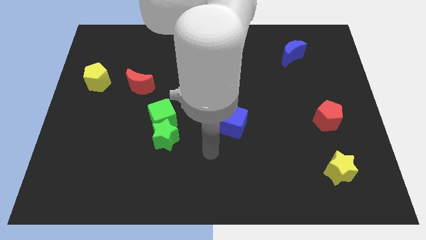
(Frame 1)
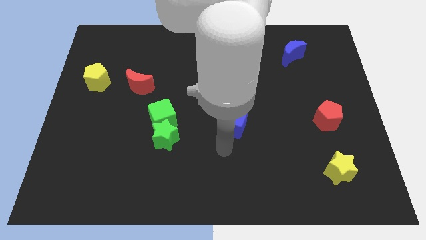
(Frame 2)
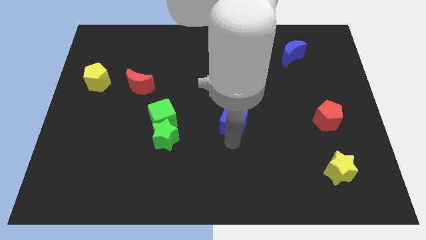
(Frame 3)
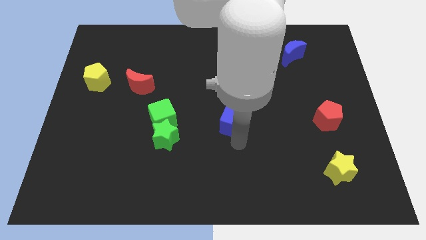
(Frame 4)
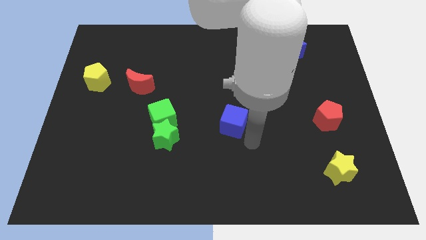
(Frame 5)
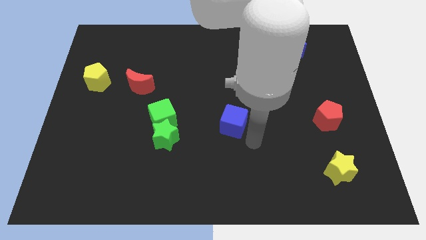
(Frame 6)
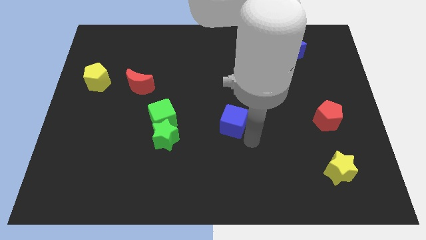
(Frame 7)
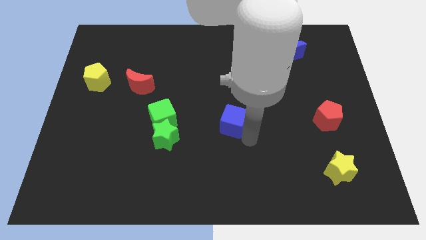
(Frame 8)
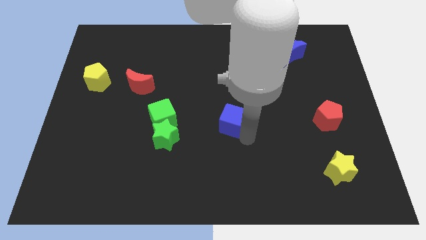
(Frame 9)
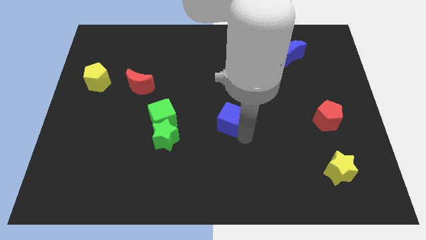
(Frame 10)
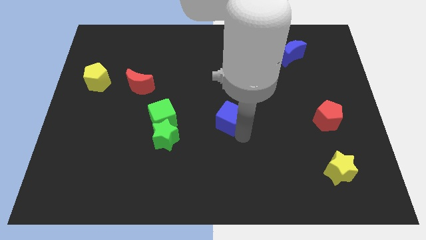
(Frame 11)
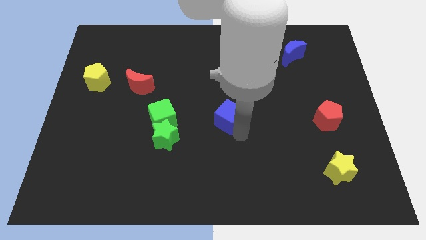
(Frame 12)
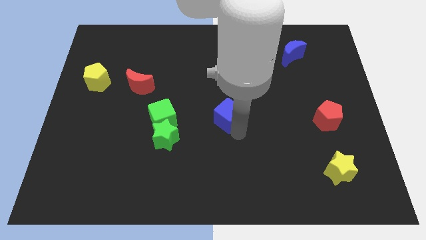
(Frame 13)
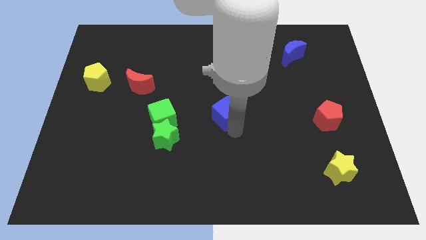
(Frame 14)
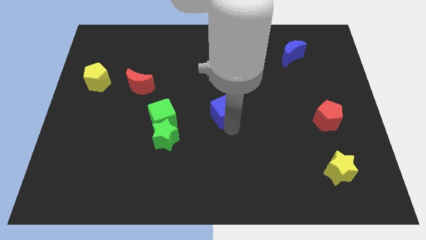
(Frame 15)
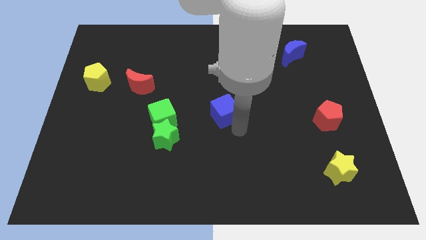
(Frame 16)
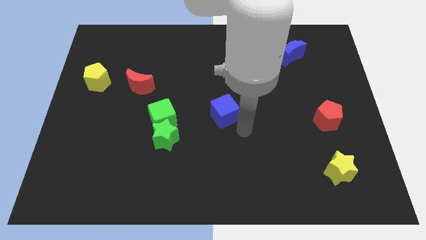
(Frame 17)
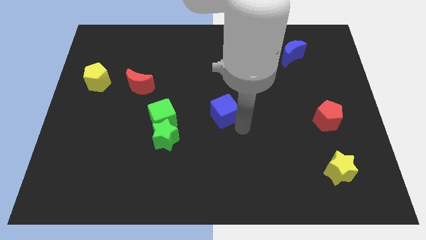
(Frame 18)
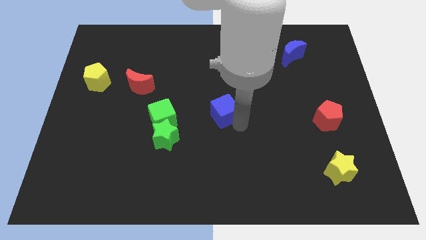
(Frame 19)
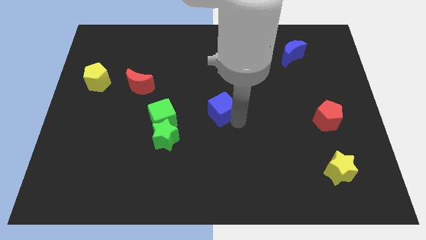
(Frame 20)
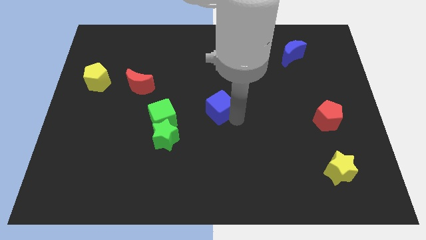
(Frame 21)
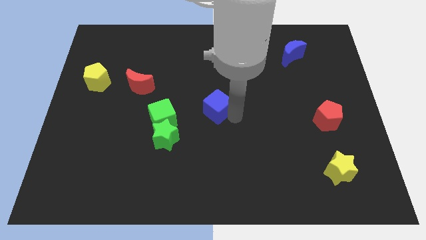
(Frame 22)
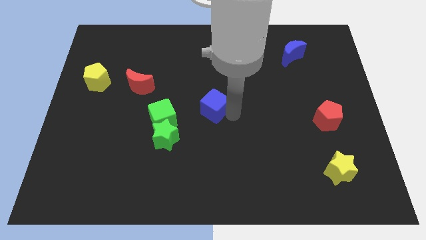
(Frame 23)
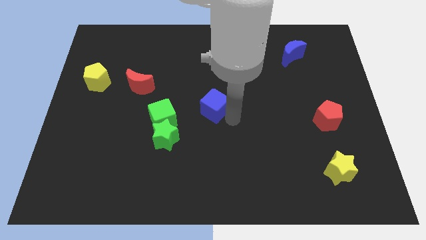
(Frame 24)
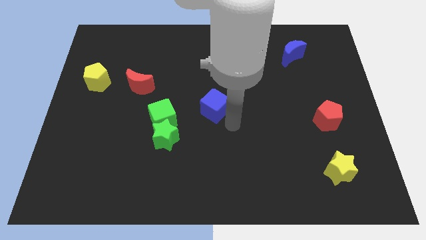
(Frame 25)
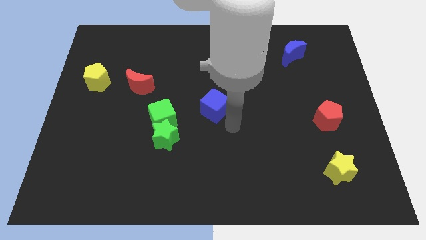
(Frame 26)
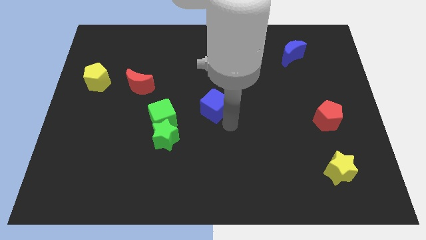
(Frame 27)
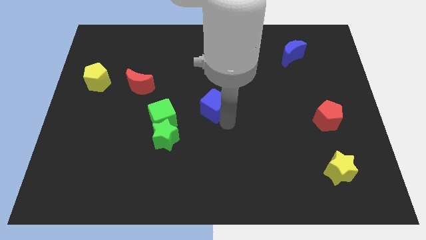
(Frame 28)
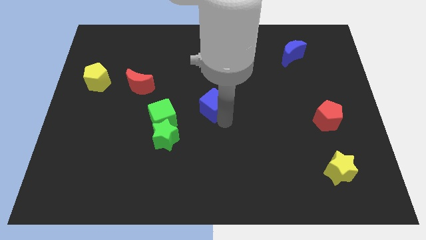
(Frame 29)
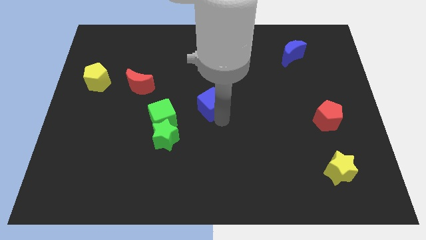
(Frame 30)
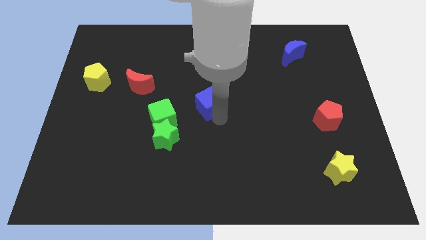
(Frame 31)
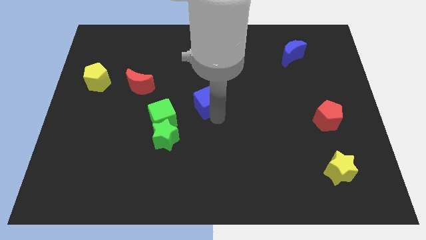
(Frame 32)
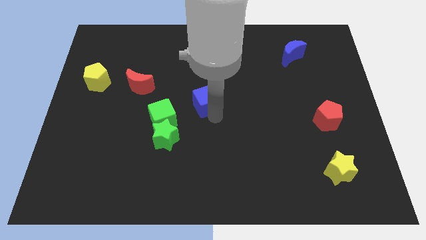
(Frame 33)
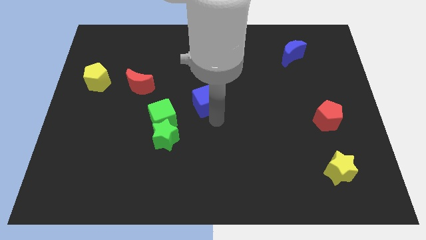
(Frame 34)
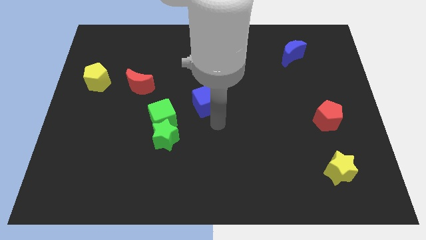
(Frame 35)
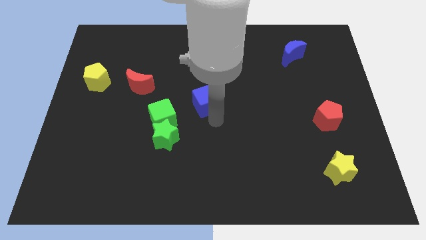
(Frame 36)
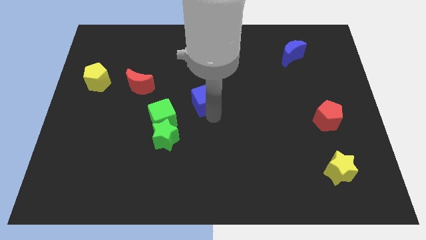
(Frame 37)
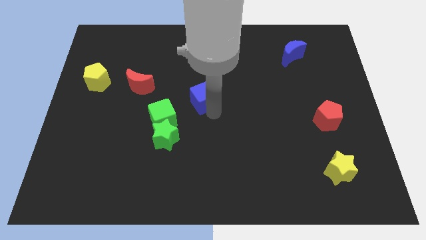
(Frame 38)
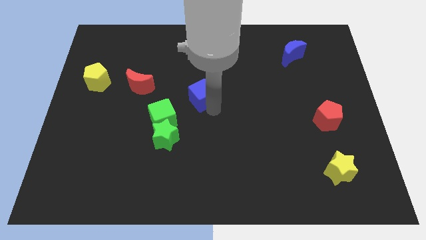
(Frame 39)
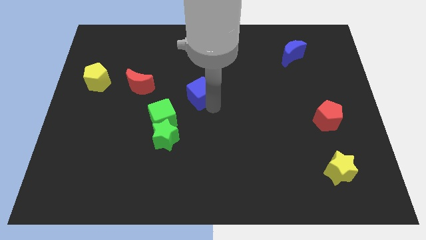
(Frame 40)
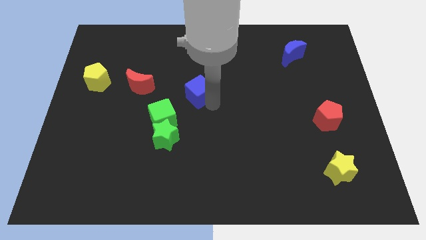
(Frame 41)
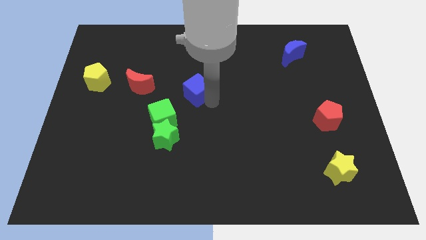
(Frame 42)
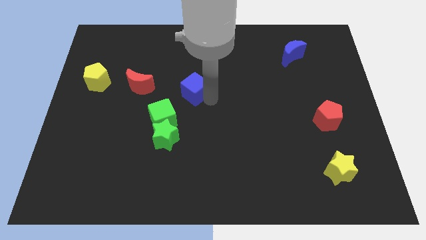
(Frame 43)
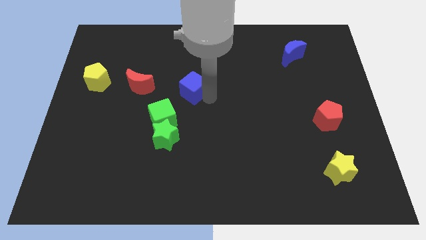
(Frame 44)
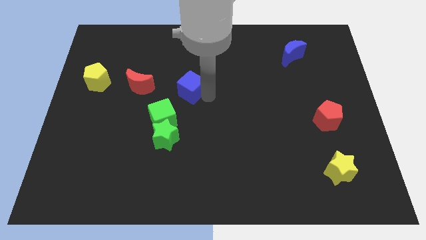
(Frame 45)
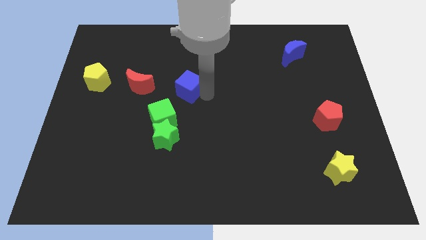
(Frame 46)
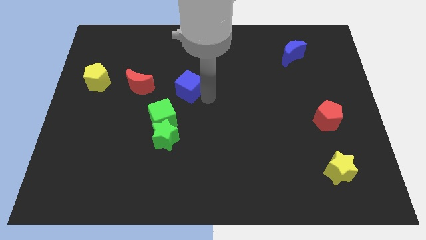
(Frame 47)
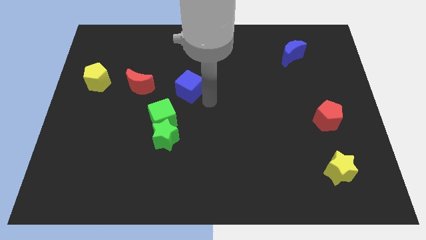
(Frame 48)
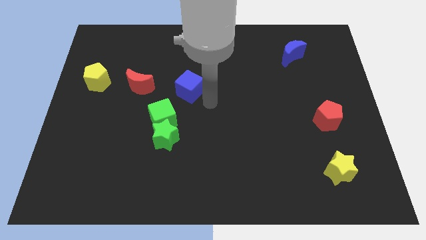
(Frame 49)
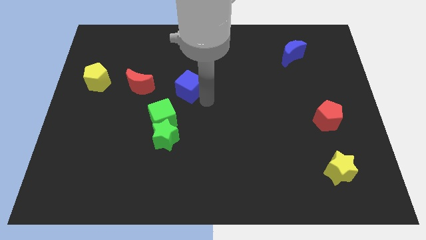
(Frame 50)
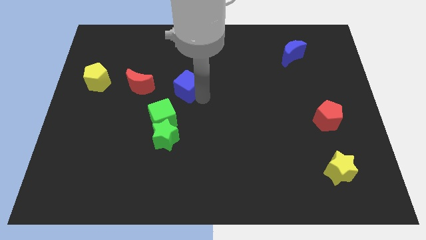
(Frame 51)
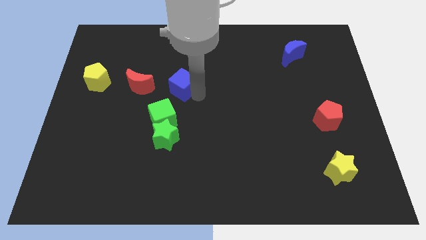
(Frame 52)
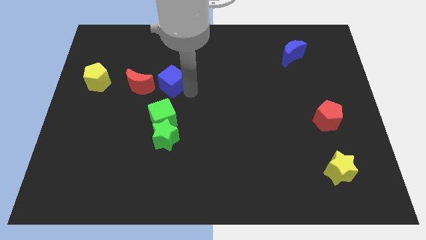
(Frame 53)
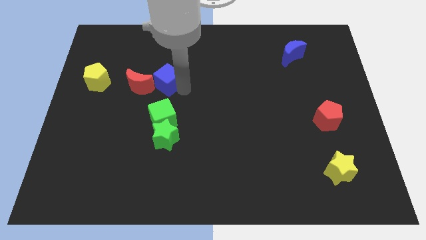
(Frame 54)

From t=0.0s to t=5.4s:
move the blue cube to the top right side of the red moon

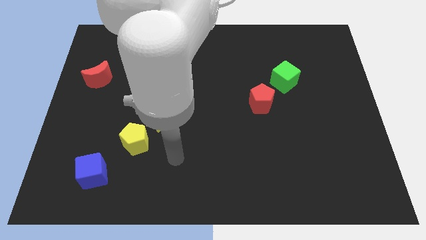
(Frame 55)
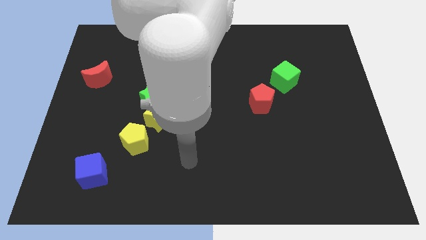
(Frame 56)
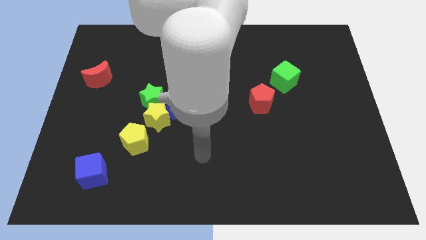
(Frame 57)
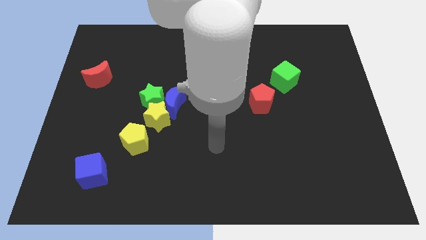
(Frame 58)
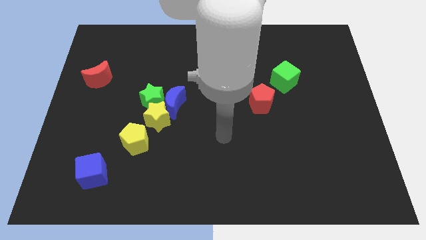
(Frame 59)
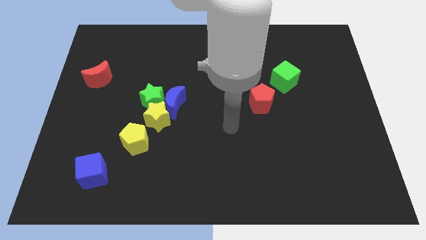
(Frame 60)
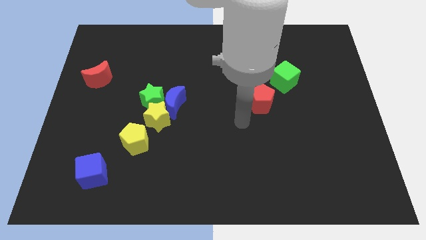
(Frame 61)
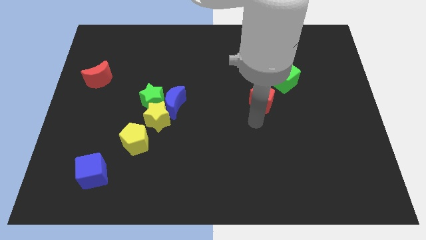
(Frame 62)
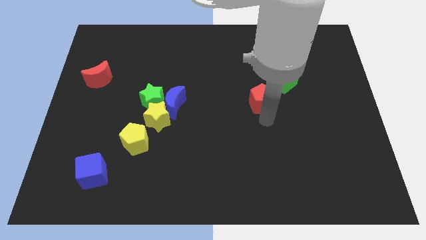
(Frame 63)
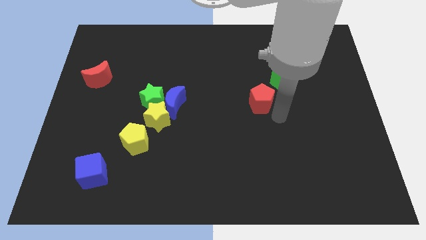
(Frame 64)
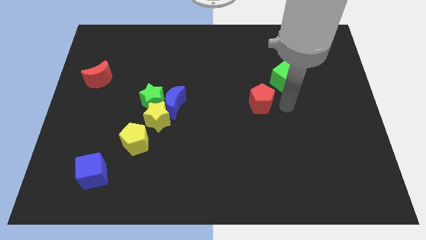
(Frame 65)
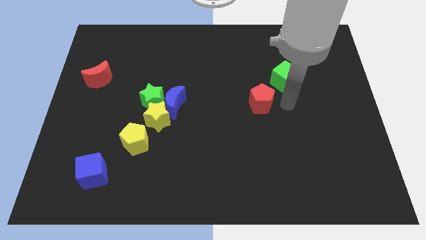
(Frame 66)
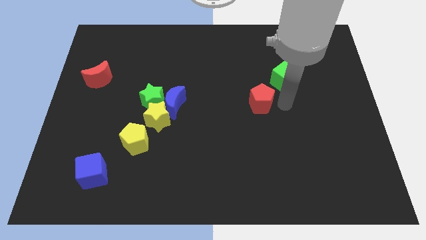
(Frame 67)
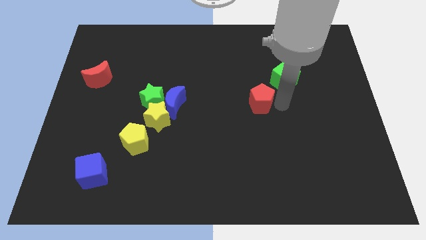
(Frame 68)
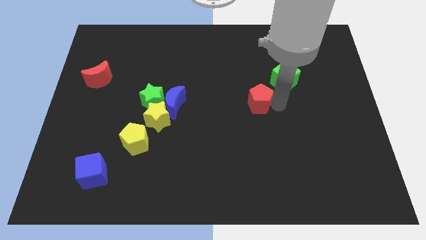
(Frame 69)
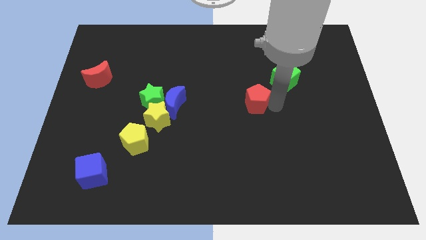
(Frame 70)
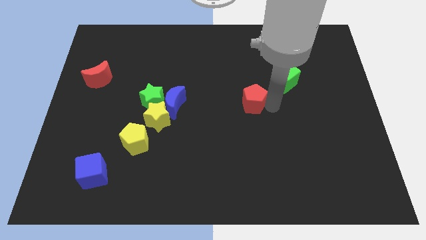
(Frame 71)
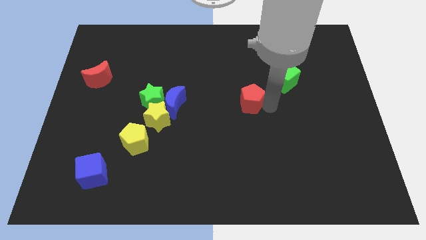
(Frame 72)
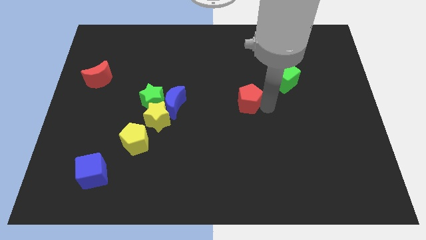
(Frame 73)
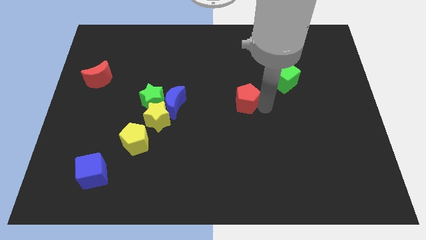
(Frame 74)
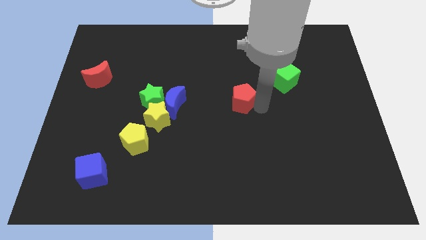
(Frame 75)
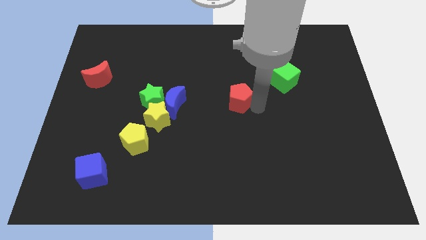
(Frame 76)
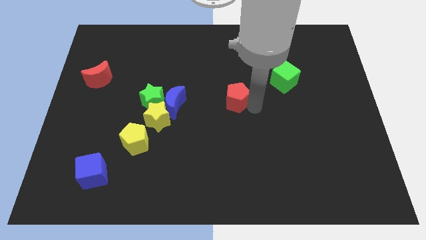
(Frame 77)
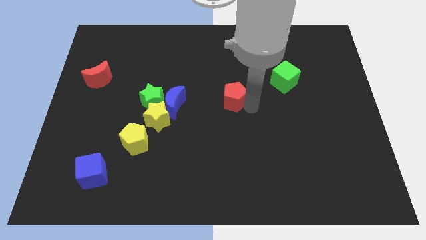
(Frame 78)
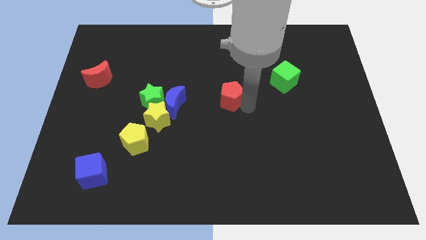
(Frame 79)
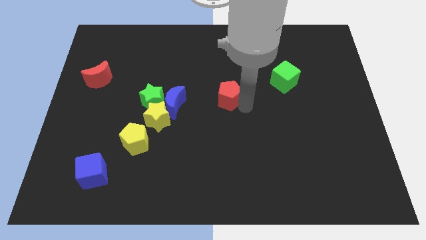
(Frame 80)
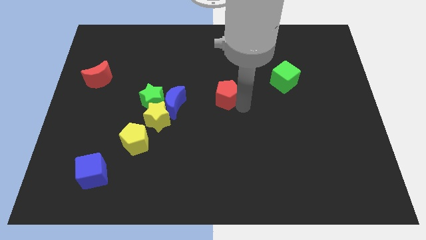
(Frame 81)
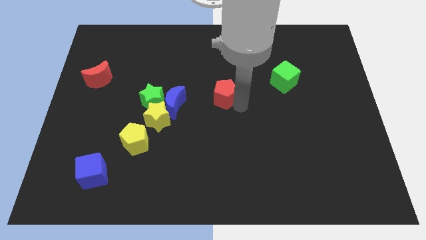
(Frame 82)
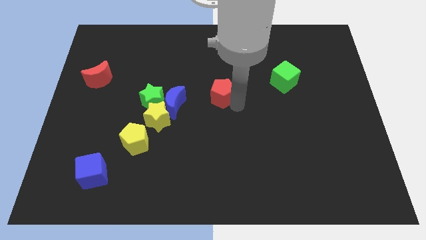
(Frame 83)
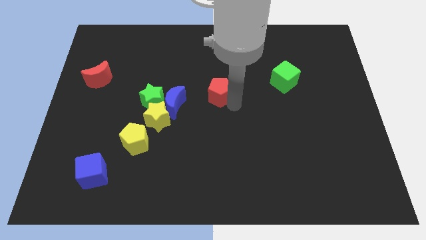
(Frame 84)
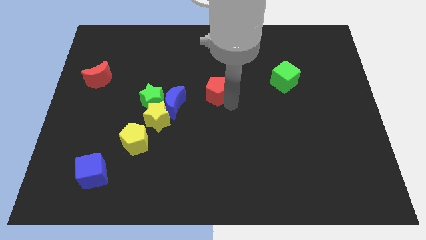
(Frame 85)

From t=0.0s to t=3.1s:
move the red pentagon diagonally up and to the right of the blue moon
